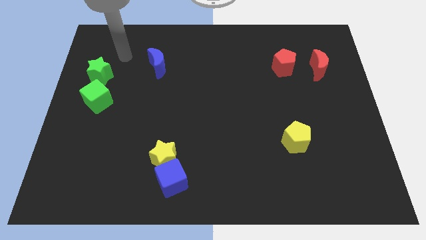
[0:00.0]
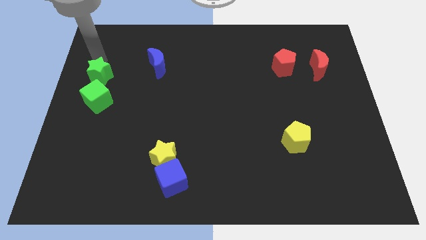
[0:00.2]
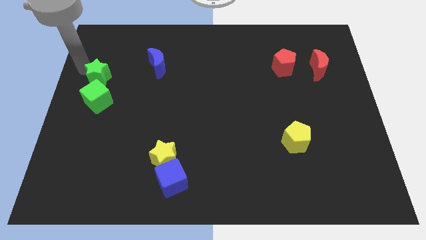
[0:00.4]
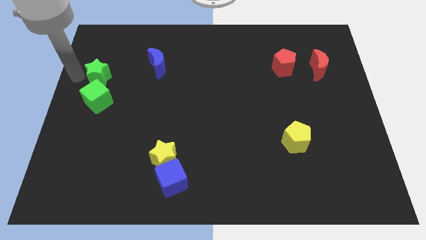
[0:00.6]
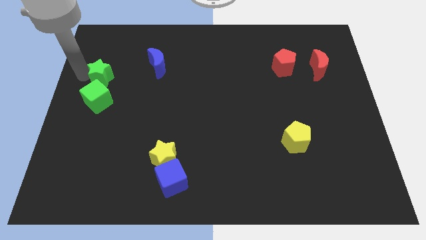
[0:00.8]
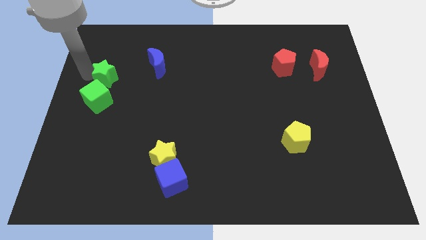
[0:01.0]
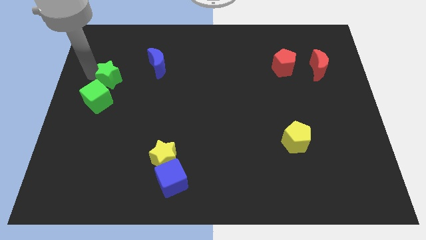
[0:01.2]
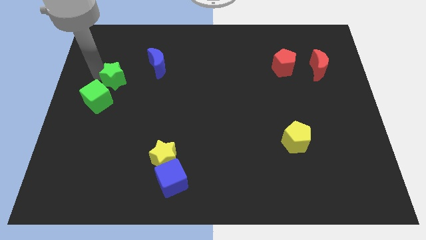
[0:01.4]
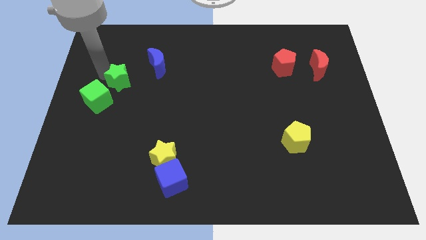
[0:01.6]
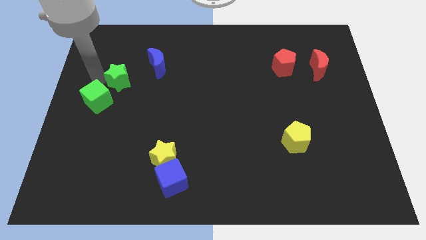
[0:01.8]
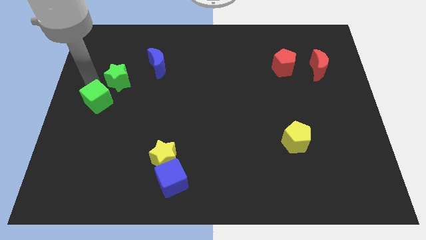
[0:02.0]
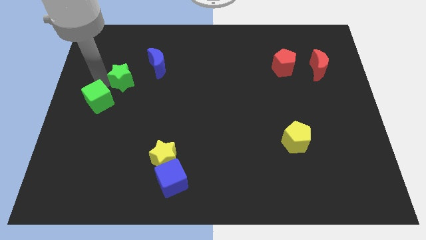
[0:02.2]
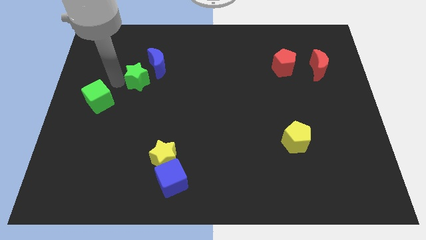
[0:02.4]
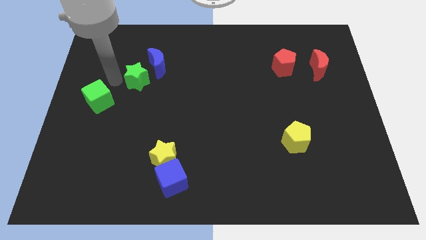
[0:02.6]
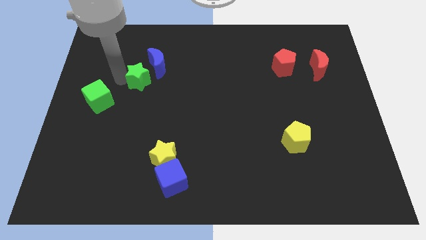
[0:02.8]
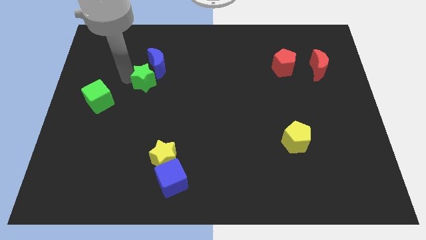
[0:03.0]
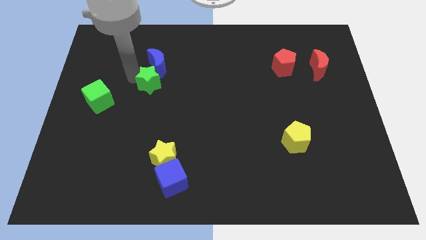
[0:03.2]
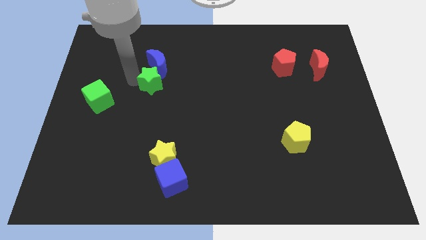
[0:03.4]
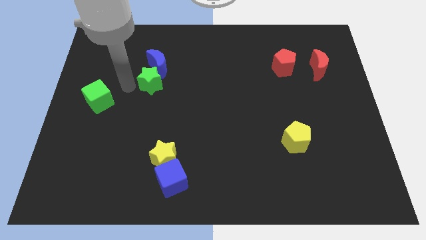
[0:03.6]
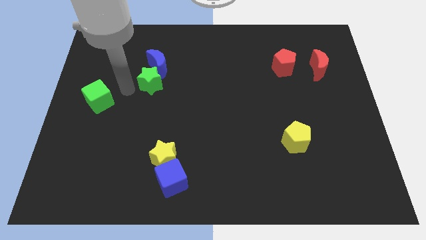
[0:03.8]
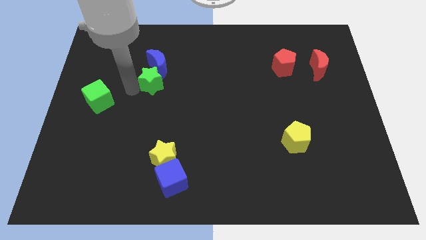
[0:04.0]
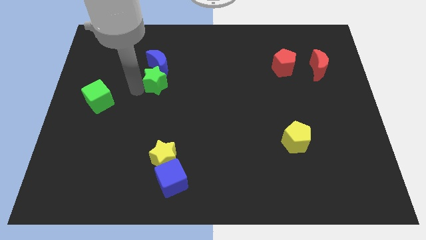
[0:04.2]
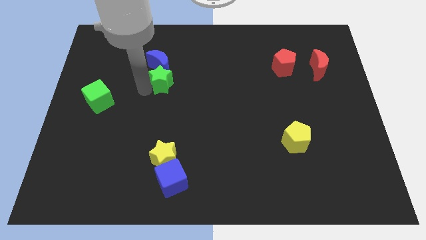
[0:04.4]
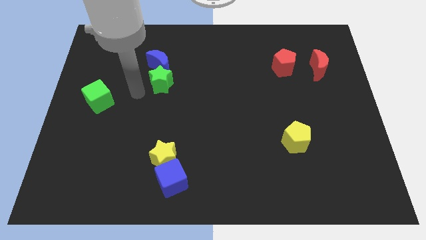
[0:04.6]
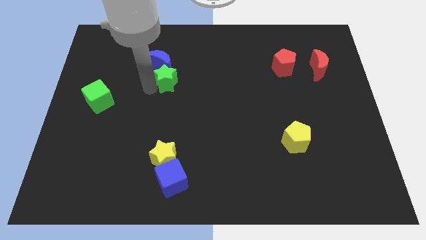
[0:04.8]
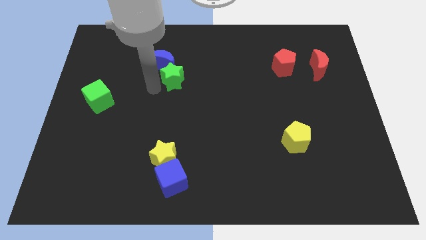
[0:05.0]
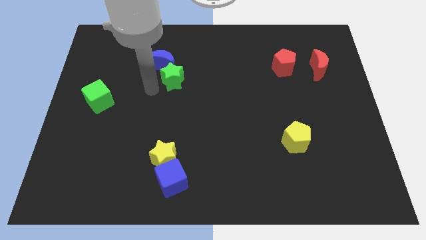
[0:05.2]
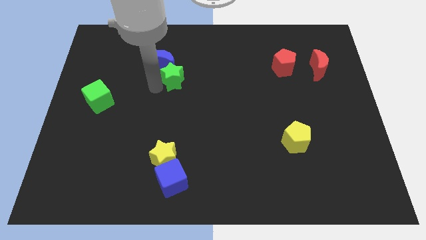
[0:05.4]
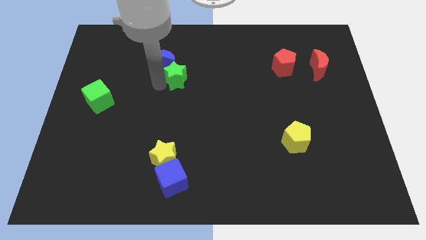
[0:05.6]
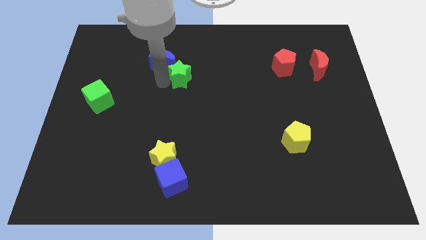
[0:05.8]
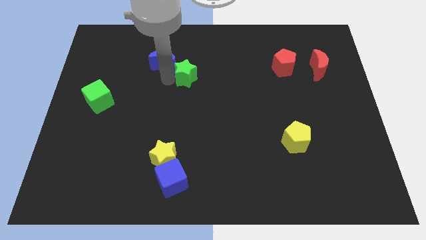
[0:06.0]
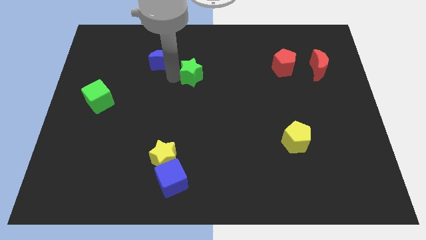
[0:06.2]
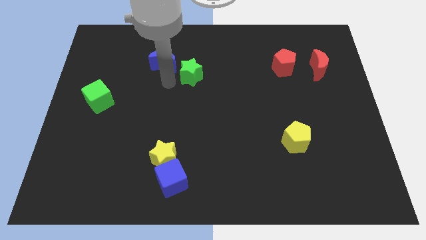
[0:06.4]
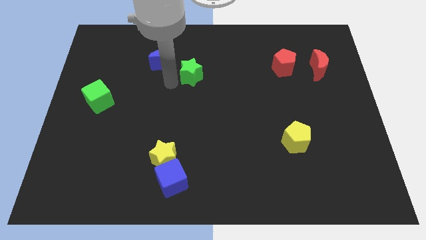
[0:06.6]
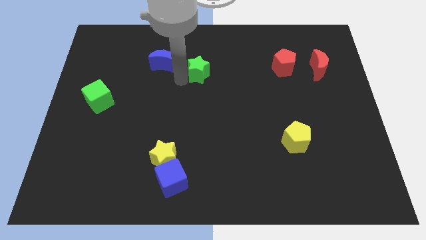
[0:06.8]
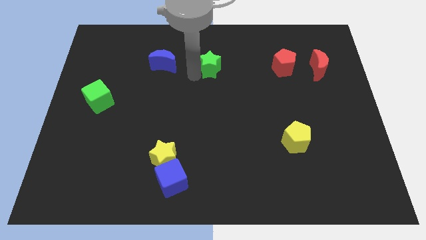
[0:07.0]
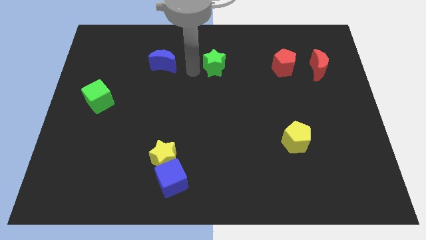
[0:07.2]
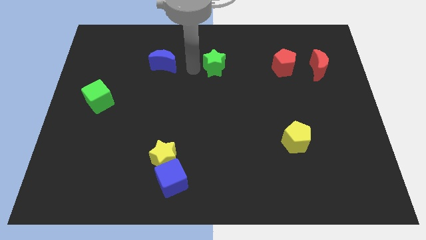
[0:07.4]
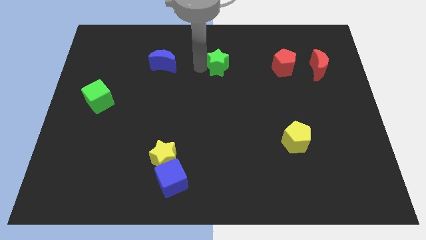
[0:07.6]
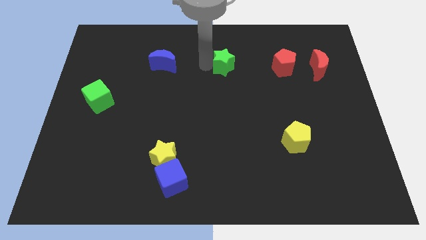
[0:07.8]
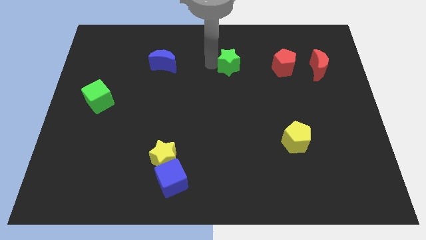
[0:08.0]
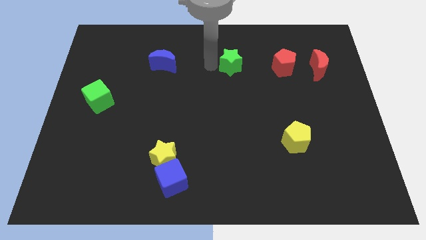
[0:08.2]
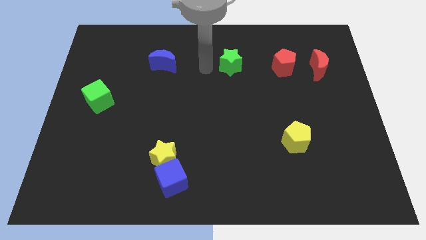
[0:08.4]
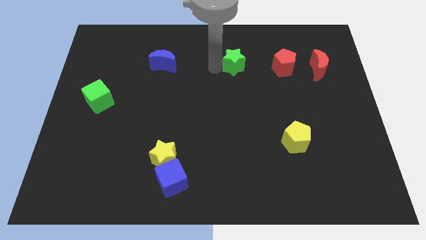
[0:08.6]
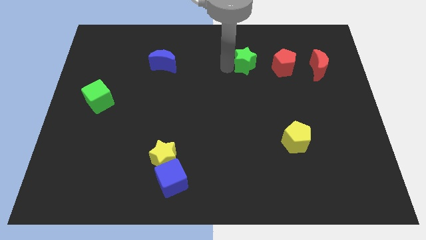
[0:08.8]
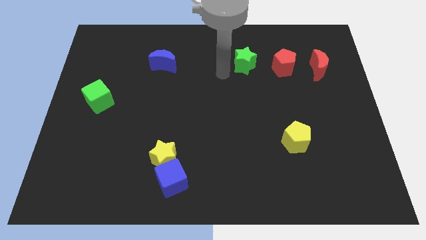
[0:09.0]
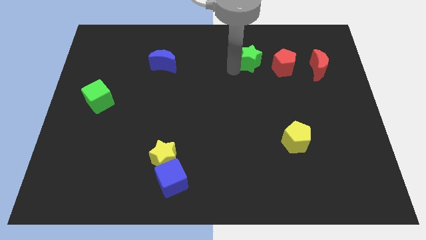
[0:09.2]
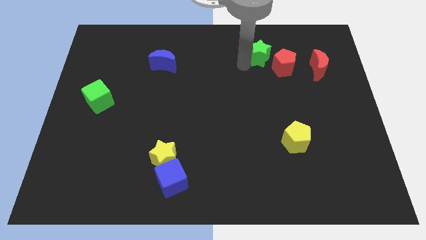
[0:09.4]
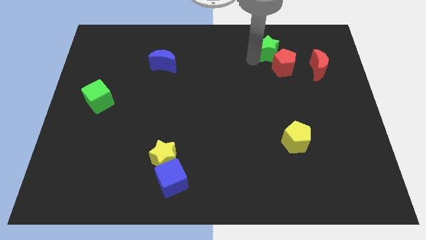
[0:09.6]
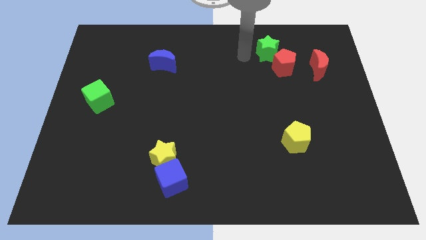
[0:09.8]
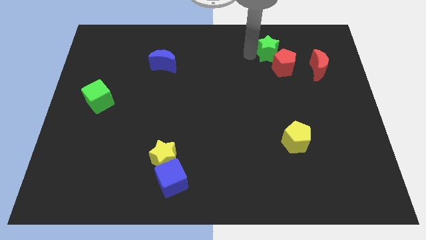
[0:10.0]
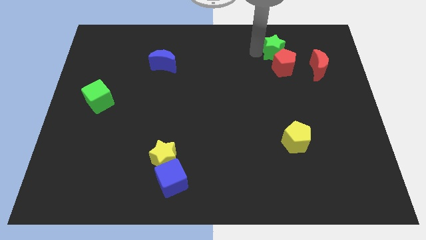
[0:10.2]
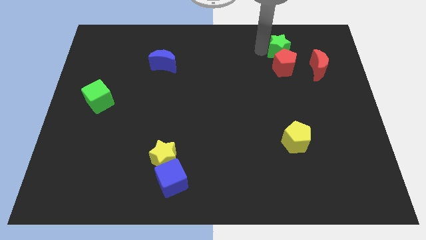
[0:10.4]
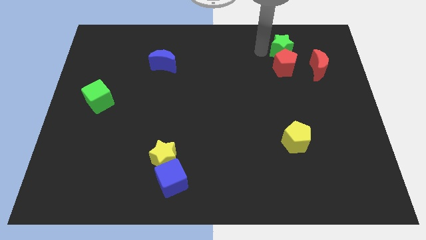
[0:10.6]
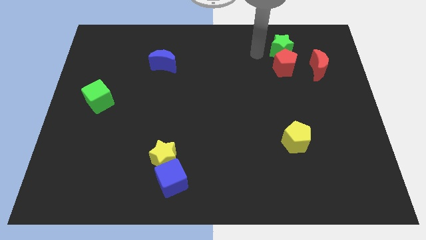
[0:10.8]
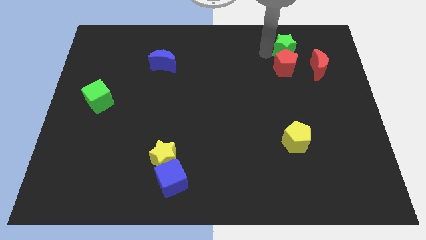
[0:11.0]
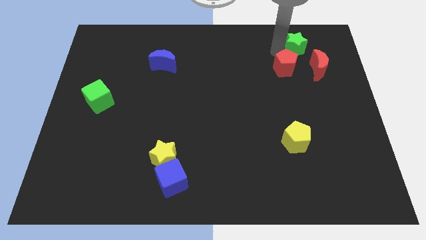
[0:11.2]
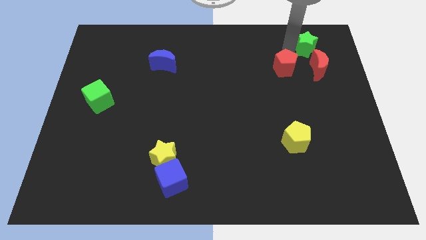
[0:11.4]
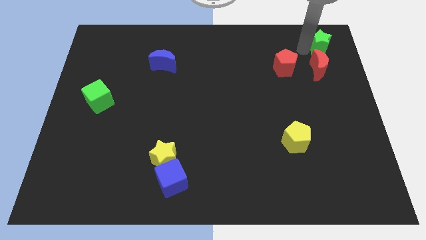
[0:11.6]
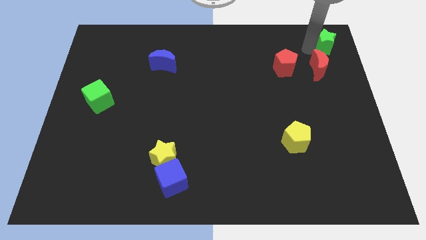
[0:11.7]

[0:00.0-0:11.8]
push the green star to the top right corner
